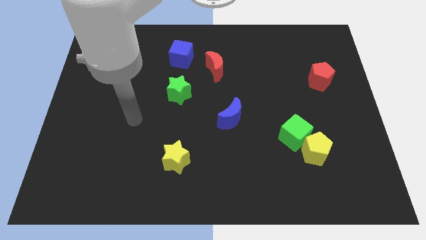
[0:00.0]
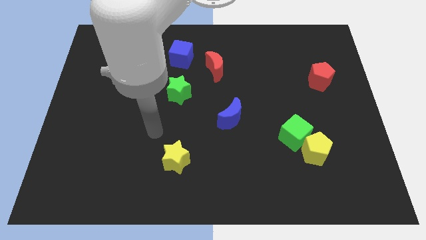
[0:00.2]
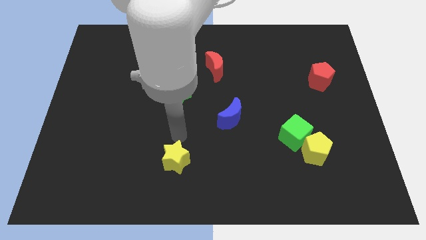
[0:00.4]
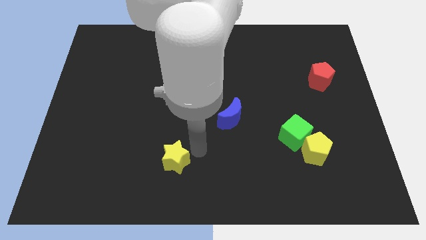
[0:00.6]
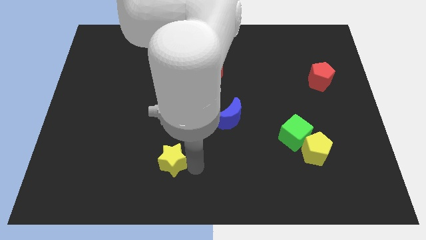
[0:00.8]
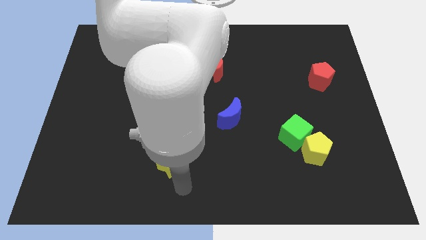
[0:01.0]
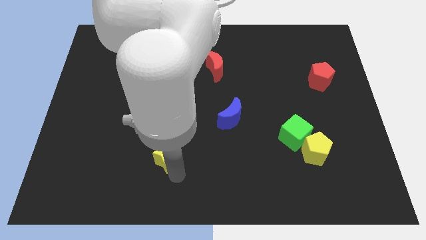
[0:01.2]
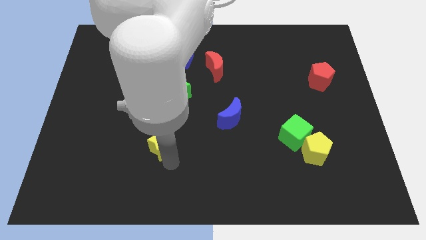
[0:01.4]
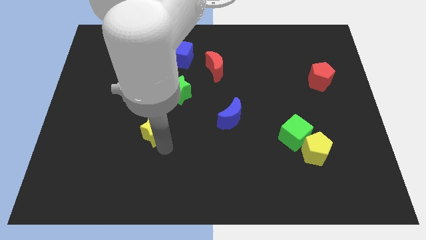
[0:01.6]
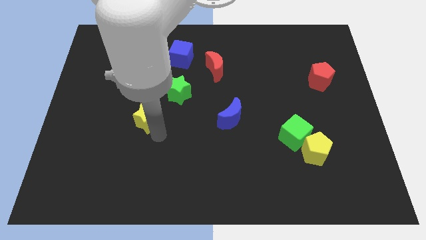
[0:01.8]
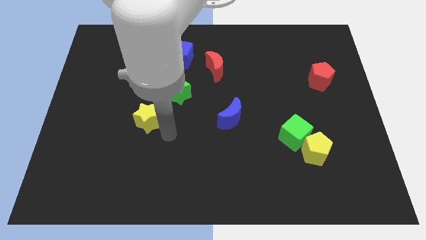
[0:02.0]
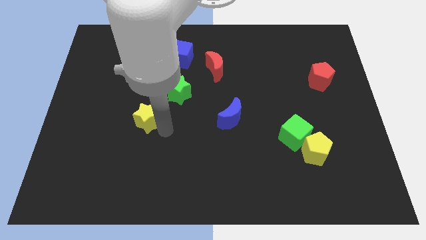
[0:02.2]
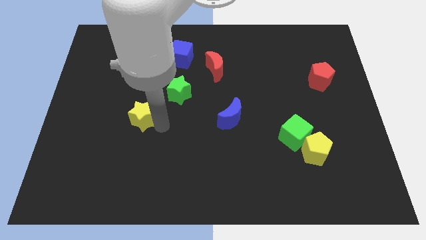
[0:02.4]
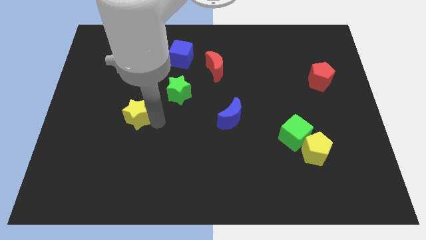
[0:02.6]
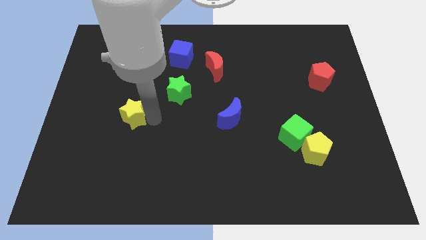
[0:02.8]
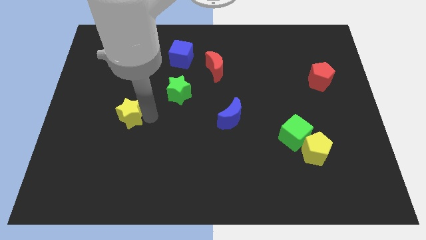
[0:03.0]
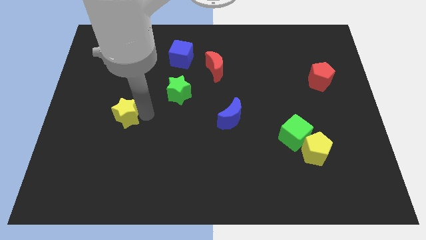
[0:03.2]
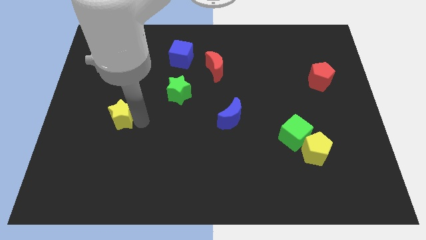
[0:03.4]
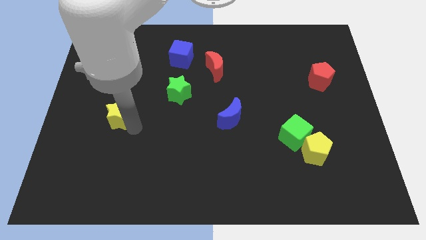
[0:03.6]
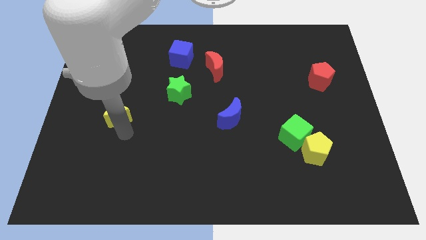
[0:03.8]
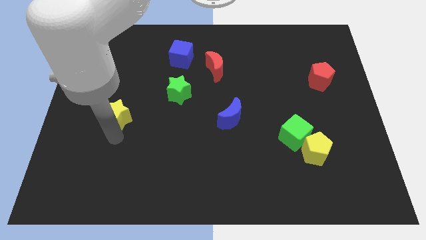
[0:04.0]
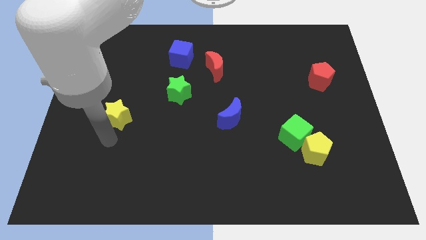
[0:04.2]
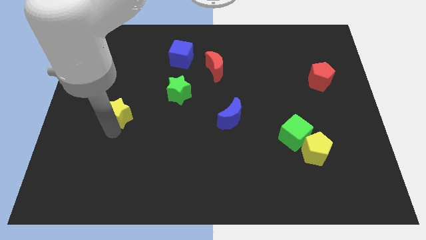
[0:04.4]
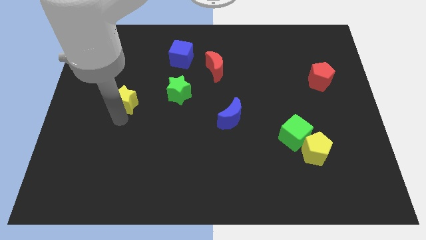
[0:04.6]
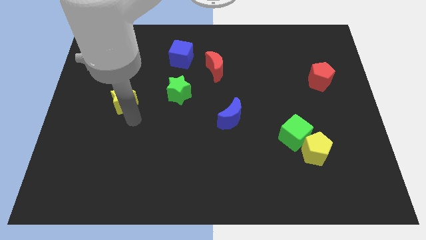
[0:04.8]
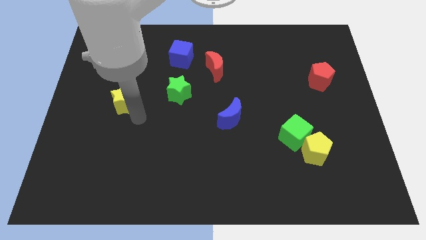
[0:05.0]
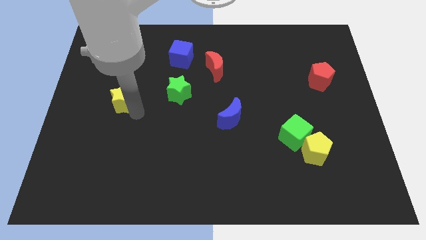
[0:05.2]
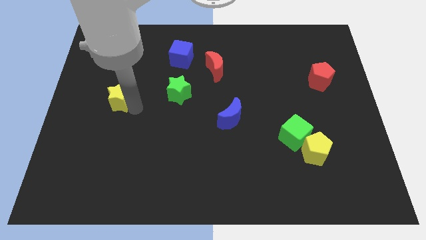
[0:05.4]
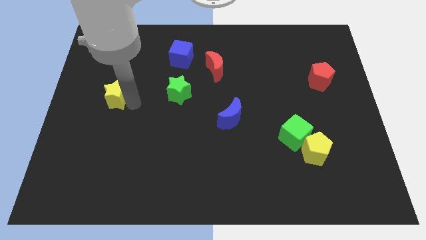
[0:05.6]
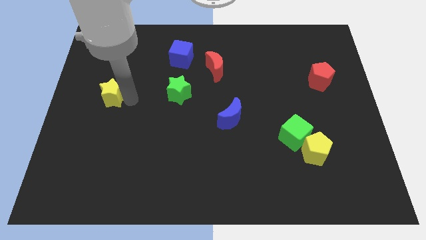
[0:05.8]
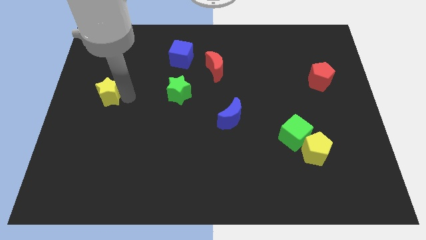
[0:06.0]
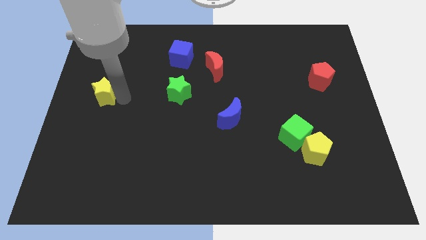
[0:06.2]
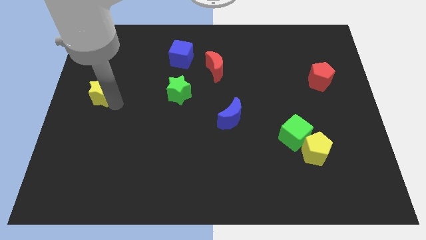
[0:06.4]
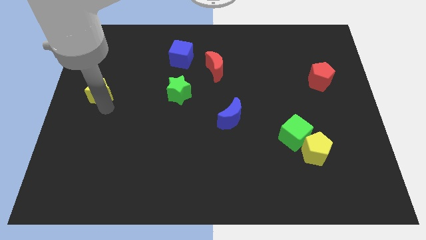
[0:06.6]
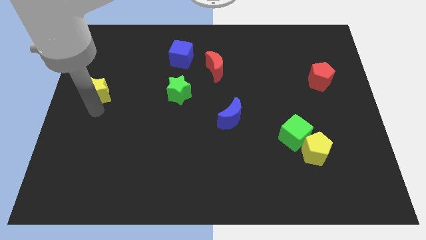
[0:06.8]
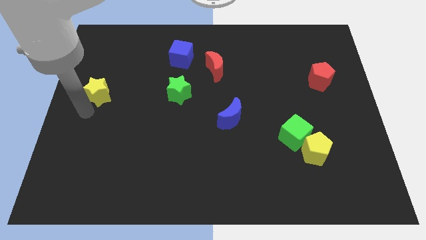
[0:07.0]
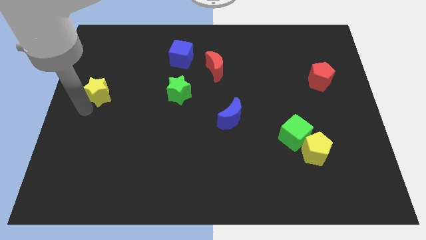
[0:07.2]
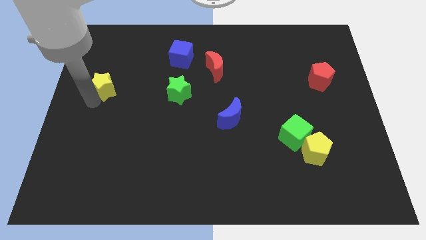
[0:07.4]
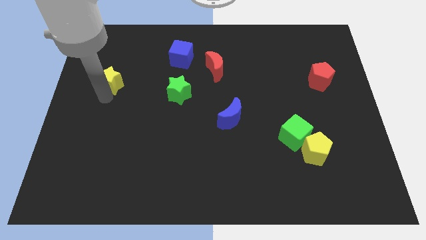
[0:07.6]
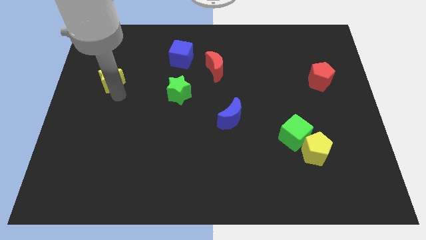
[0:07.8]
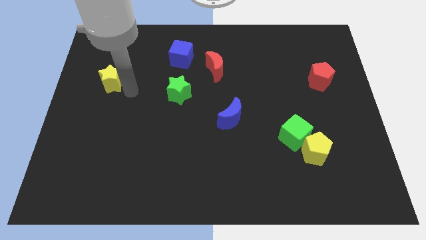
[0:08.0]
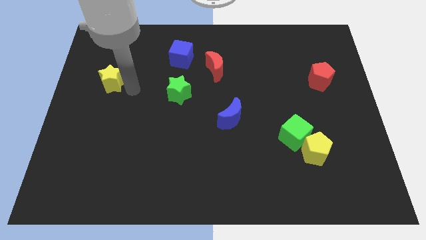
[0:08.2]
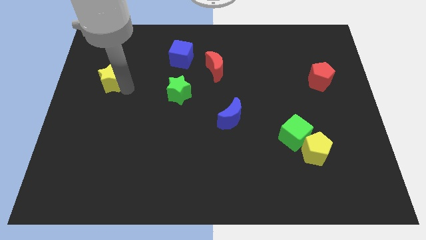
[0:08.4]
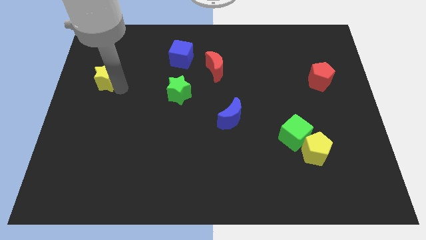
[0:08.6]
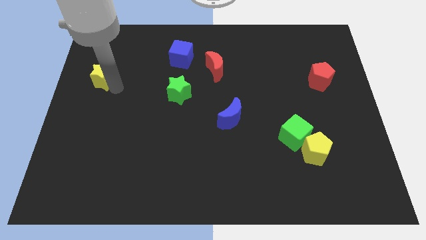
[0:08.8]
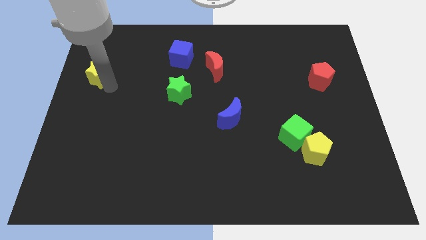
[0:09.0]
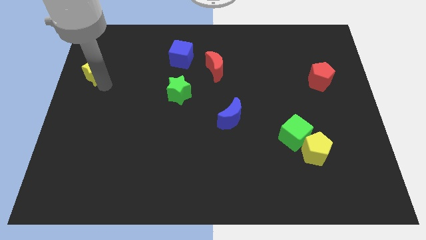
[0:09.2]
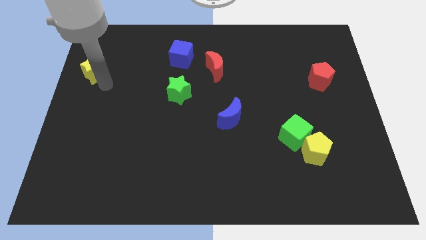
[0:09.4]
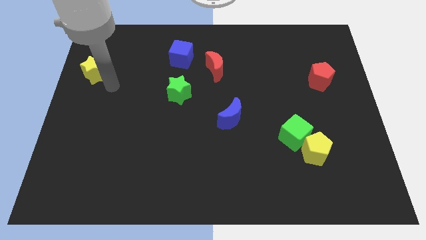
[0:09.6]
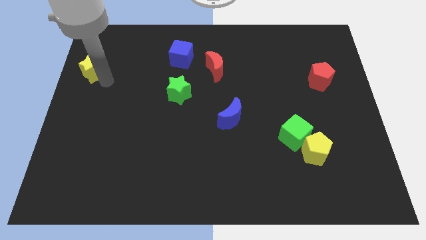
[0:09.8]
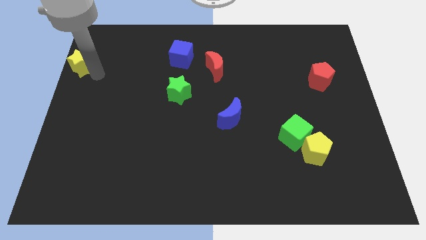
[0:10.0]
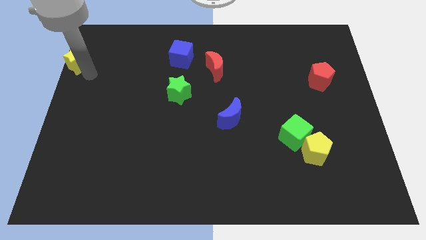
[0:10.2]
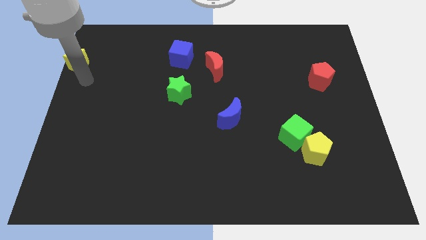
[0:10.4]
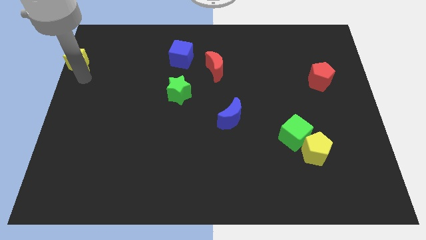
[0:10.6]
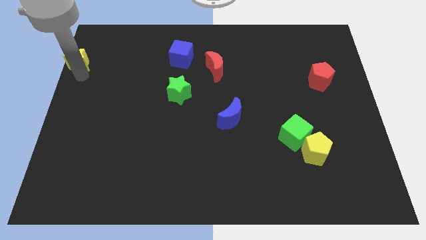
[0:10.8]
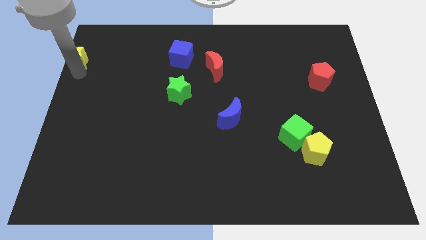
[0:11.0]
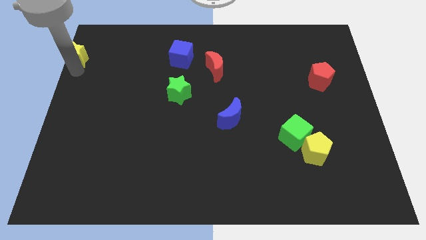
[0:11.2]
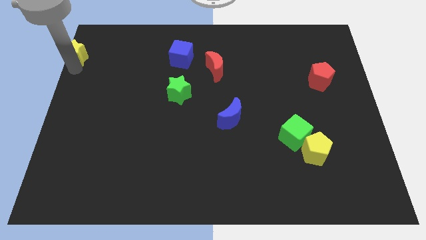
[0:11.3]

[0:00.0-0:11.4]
push the yellow star to the top left

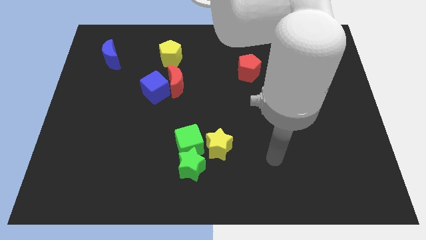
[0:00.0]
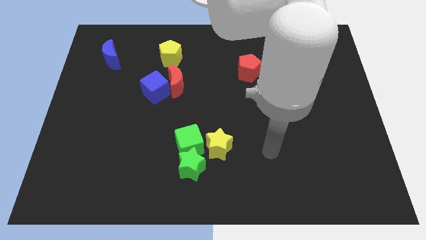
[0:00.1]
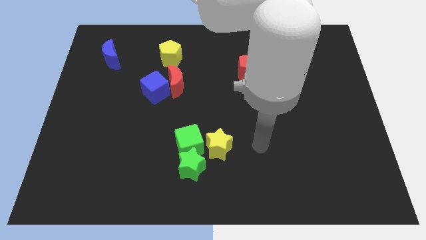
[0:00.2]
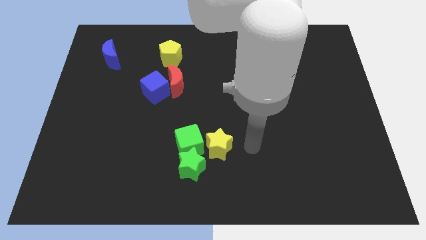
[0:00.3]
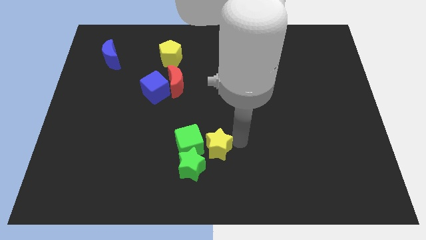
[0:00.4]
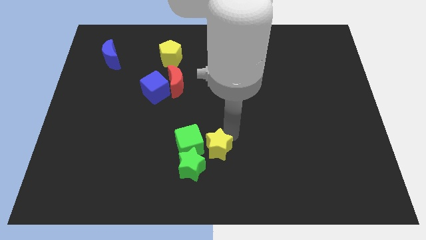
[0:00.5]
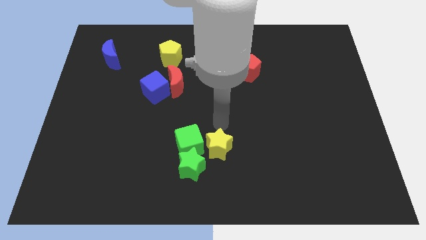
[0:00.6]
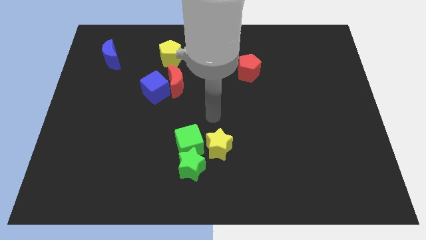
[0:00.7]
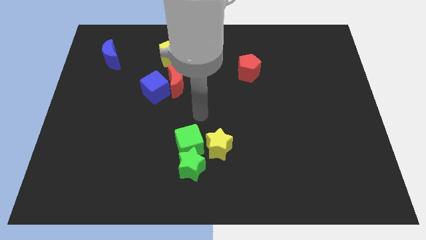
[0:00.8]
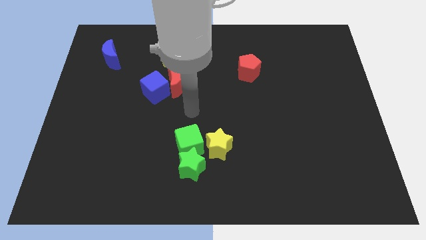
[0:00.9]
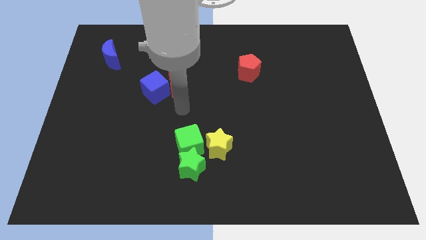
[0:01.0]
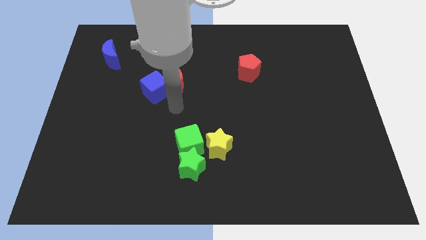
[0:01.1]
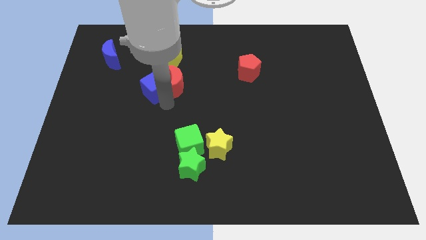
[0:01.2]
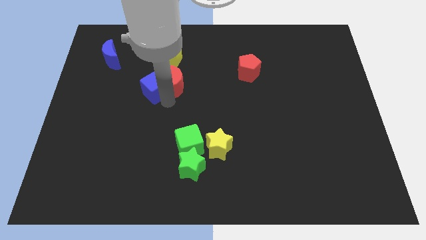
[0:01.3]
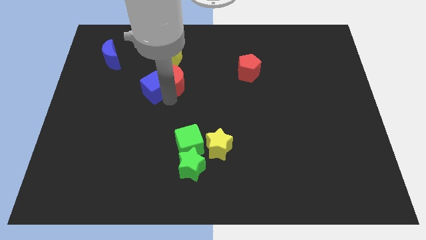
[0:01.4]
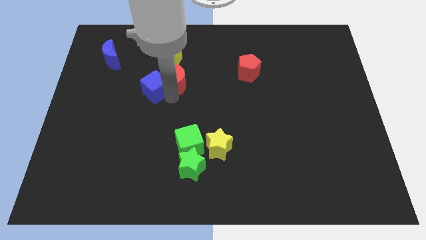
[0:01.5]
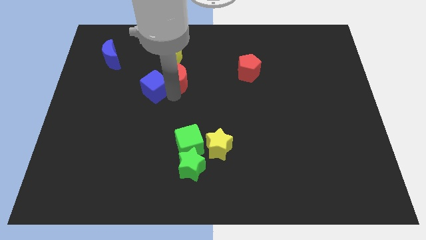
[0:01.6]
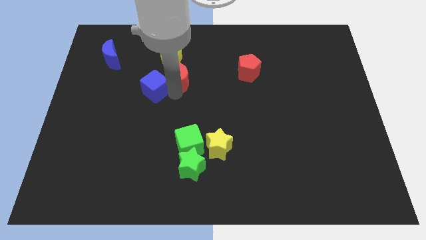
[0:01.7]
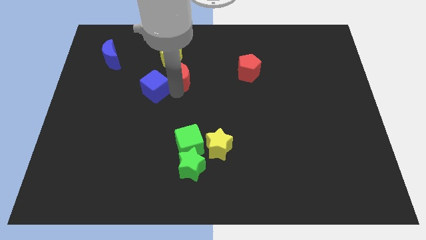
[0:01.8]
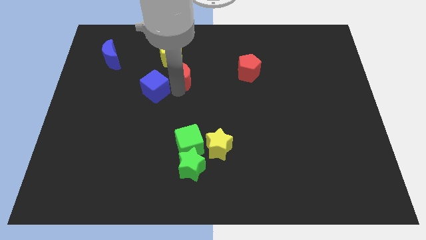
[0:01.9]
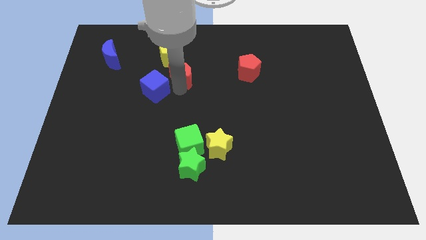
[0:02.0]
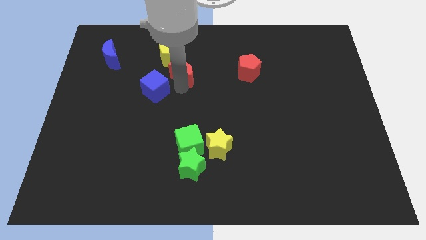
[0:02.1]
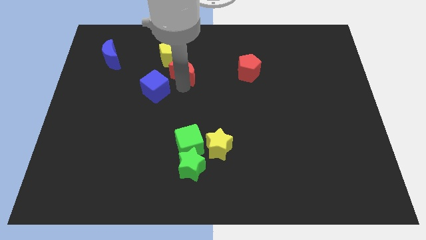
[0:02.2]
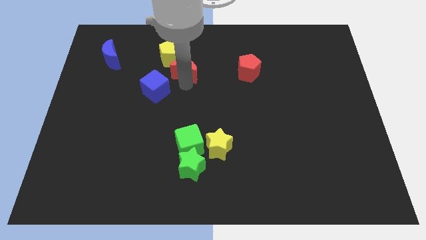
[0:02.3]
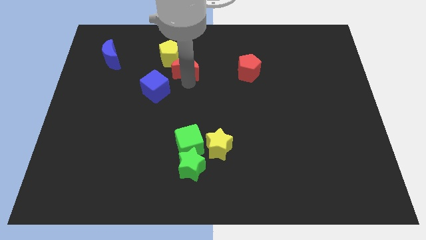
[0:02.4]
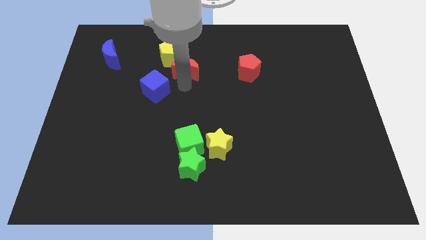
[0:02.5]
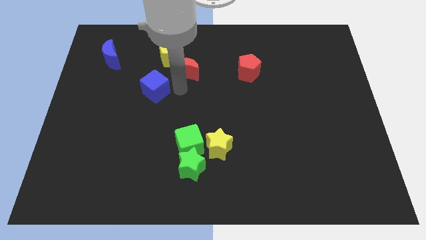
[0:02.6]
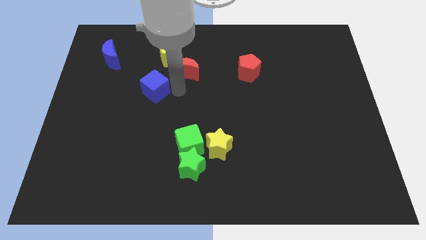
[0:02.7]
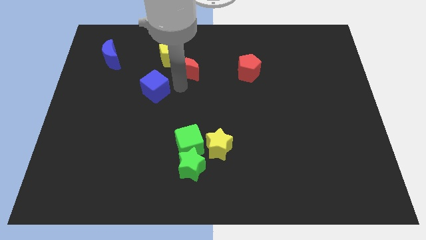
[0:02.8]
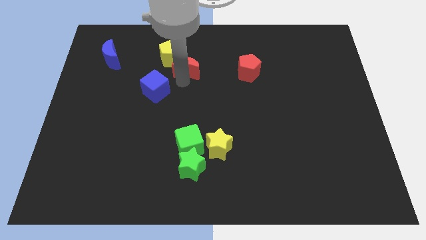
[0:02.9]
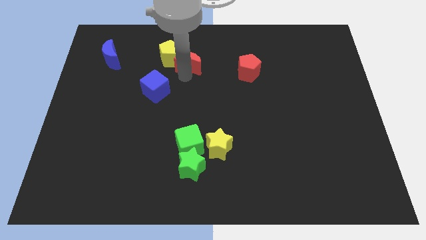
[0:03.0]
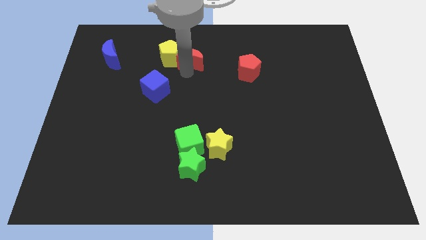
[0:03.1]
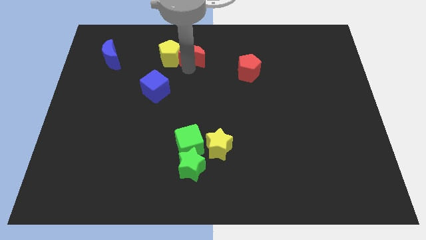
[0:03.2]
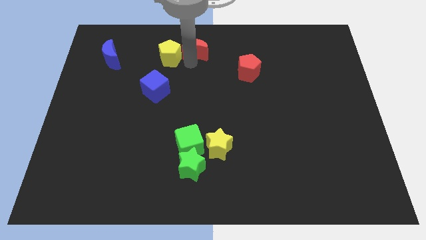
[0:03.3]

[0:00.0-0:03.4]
push the red moon to the towards your base
